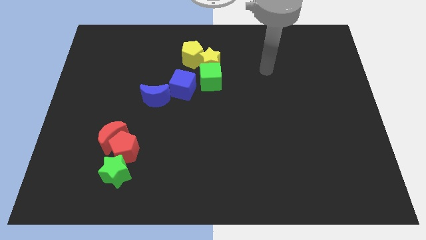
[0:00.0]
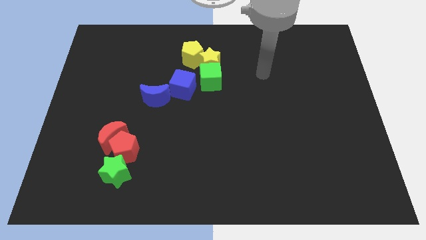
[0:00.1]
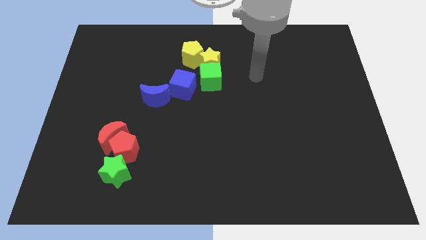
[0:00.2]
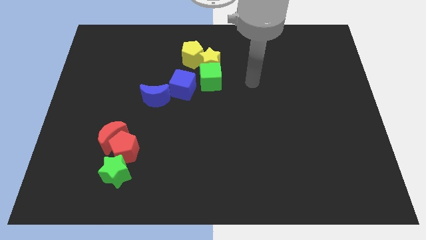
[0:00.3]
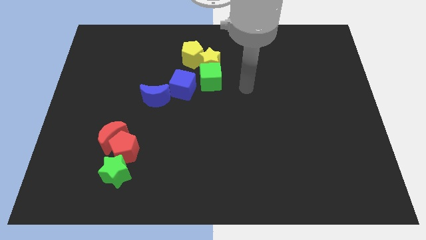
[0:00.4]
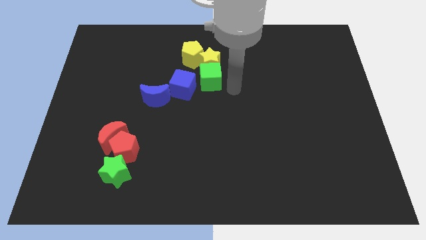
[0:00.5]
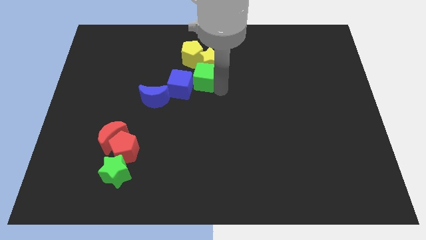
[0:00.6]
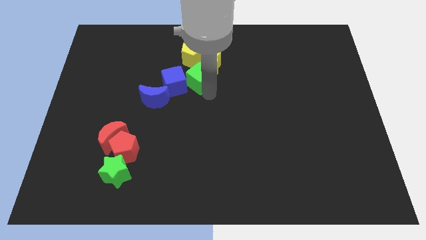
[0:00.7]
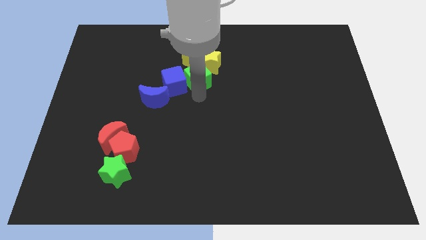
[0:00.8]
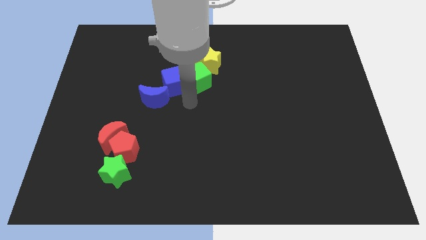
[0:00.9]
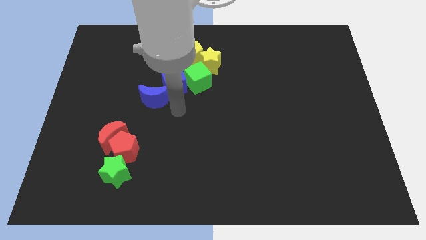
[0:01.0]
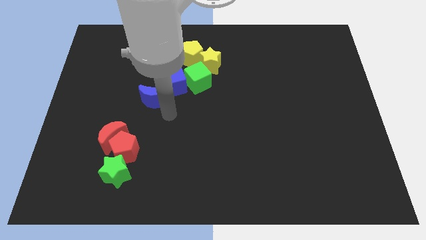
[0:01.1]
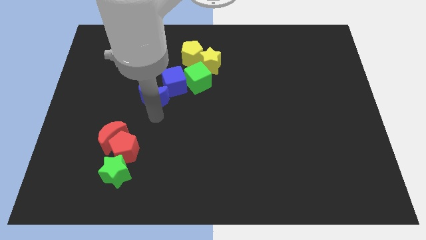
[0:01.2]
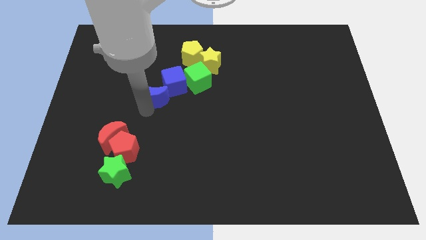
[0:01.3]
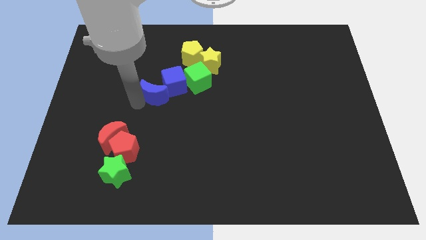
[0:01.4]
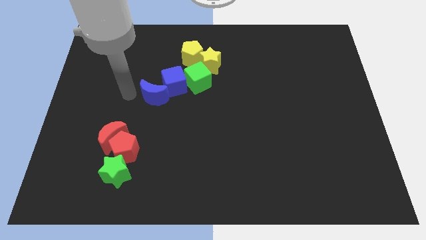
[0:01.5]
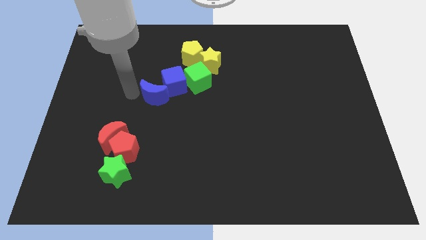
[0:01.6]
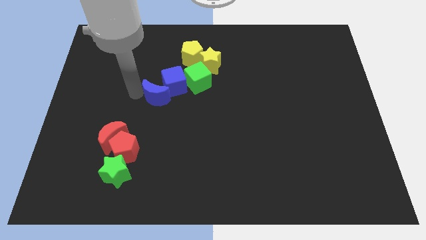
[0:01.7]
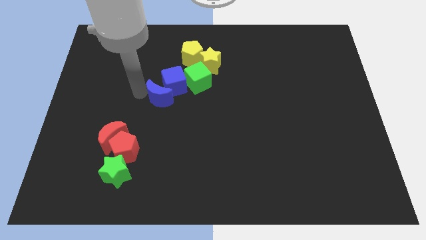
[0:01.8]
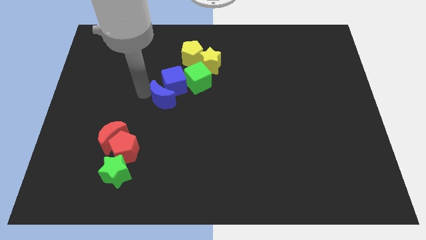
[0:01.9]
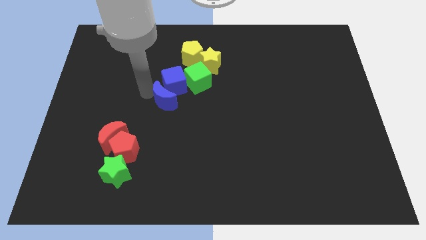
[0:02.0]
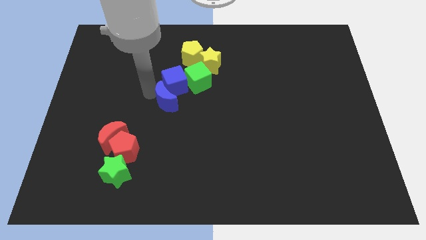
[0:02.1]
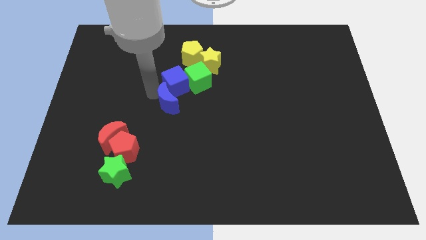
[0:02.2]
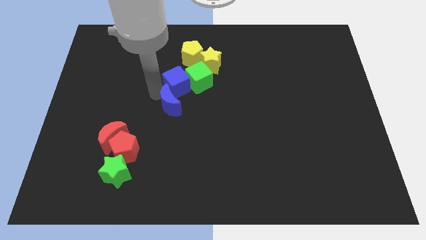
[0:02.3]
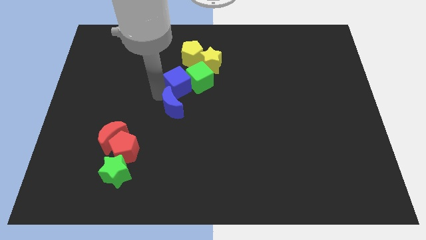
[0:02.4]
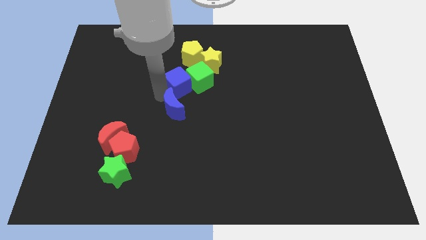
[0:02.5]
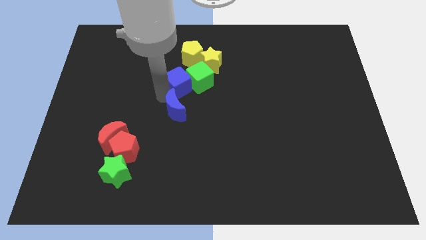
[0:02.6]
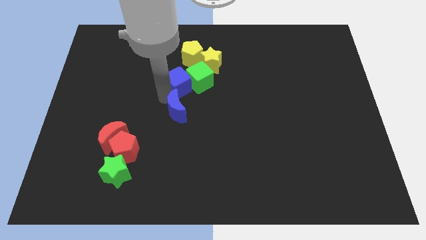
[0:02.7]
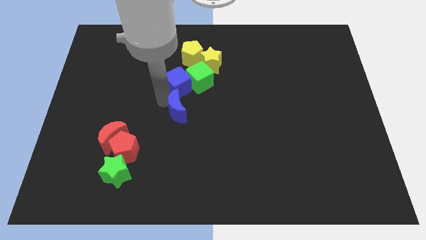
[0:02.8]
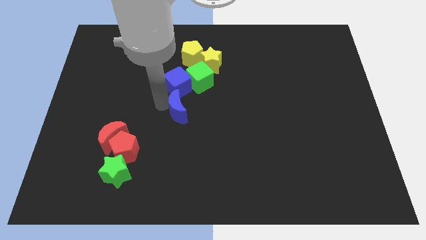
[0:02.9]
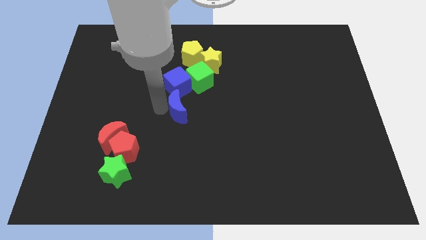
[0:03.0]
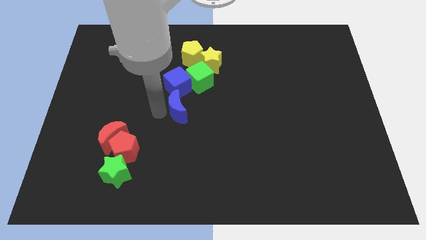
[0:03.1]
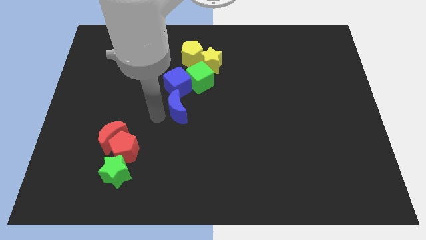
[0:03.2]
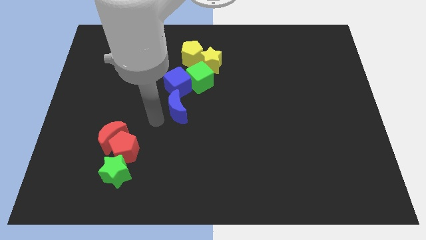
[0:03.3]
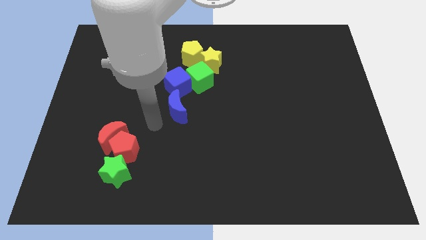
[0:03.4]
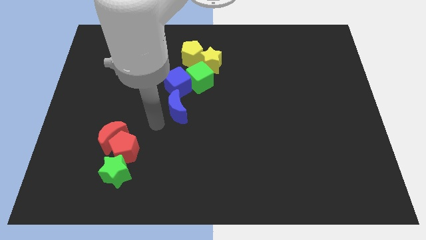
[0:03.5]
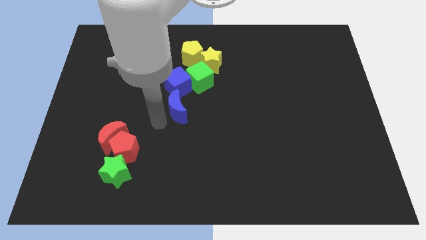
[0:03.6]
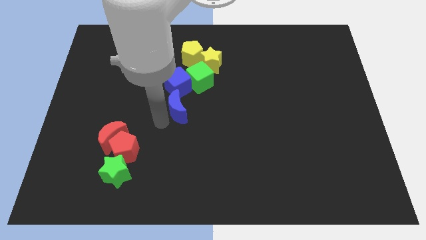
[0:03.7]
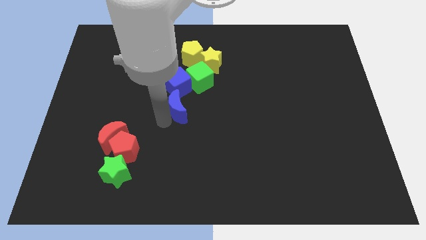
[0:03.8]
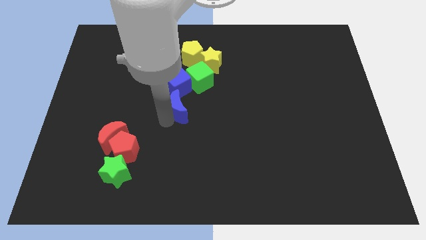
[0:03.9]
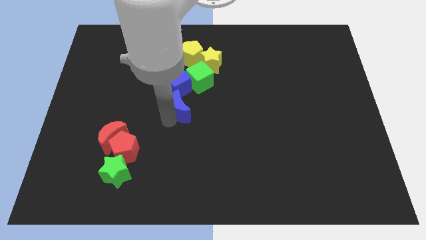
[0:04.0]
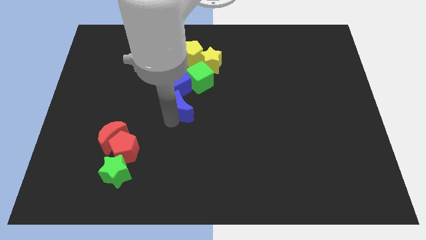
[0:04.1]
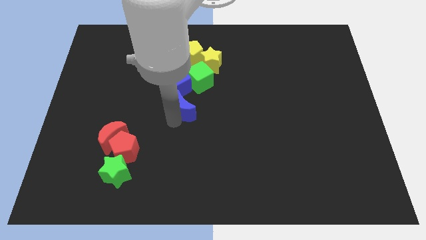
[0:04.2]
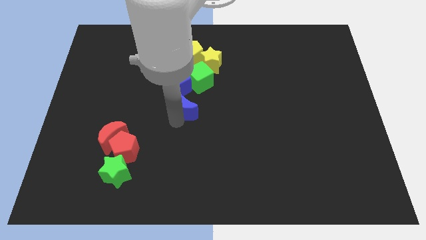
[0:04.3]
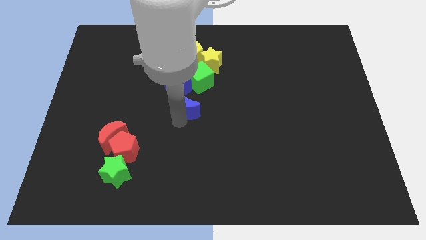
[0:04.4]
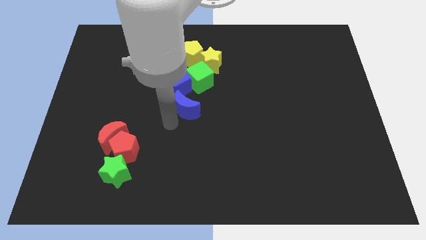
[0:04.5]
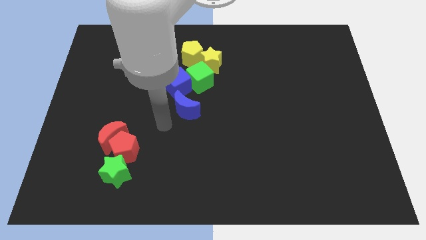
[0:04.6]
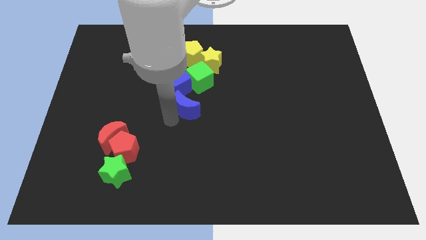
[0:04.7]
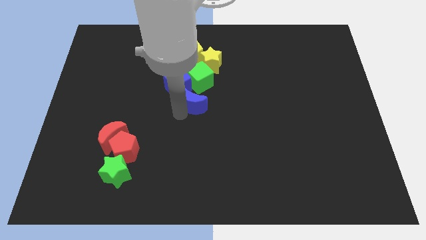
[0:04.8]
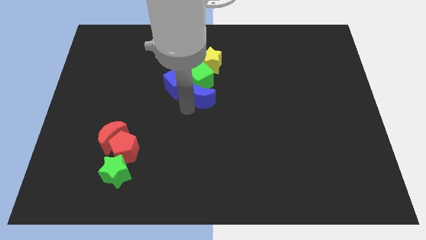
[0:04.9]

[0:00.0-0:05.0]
put the blue moon just right of the blue cube

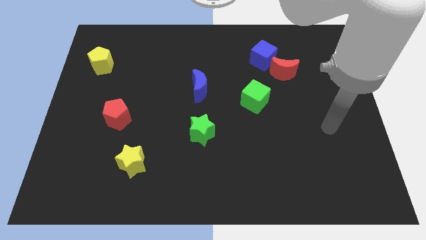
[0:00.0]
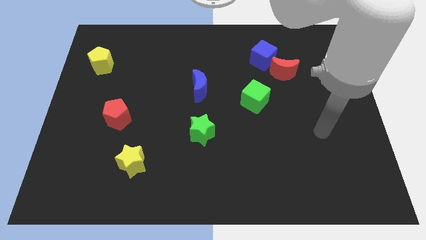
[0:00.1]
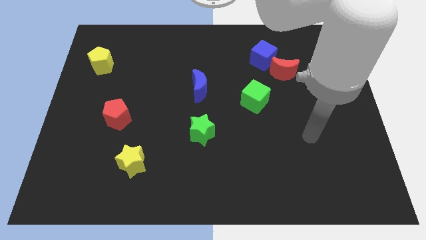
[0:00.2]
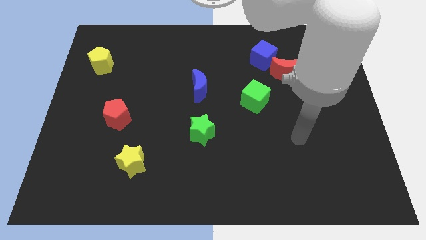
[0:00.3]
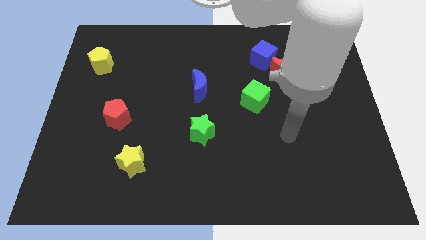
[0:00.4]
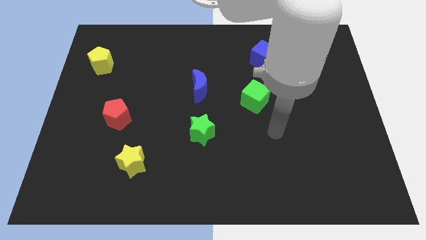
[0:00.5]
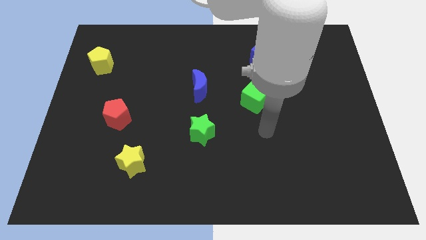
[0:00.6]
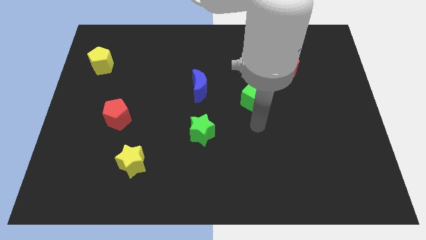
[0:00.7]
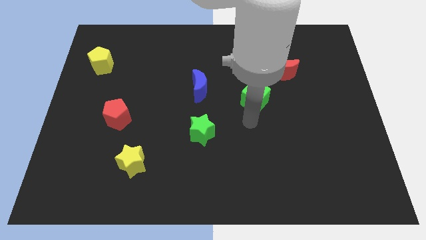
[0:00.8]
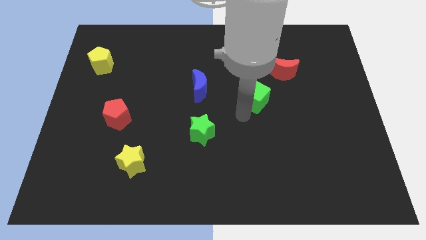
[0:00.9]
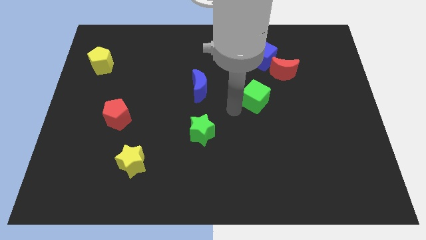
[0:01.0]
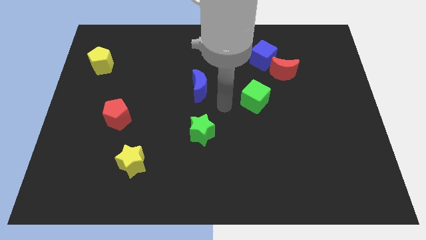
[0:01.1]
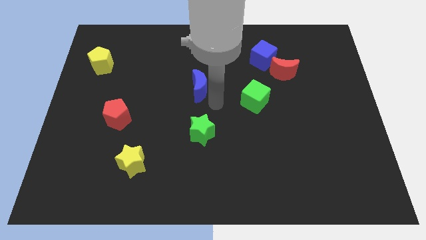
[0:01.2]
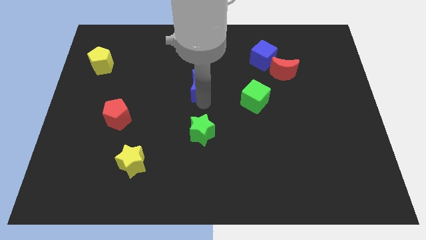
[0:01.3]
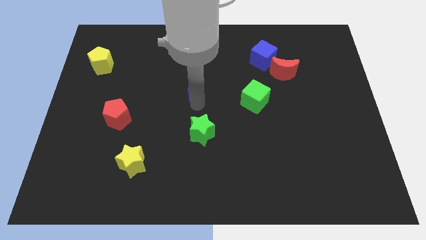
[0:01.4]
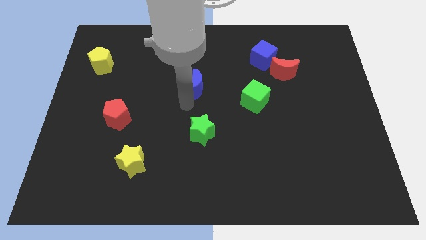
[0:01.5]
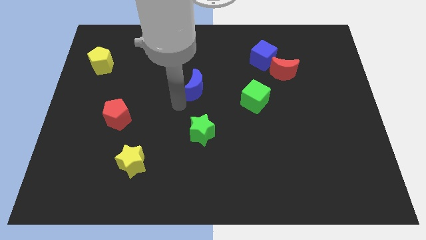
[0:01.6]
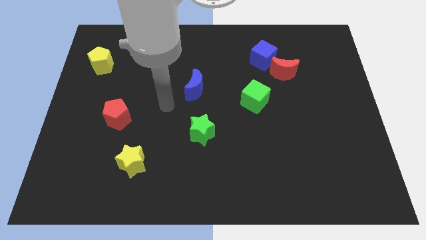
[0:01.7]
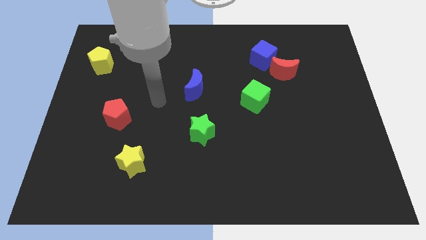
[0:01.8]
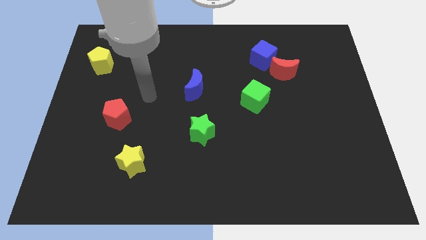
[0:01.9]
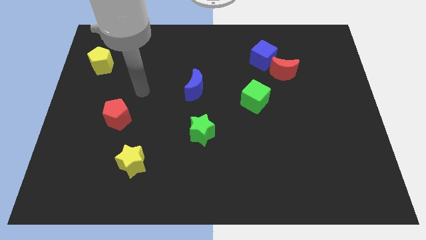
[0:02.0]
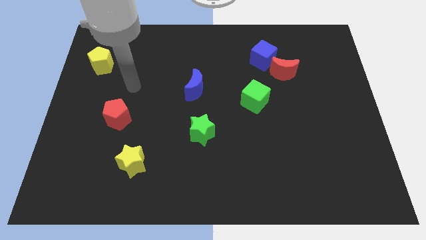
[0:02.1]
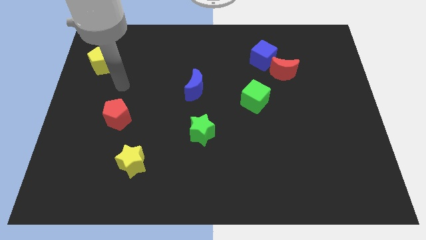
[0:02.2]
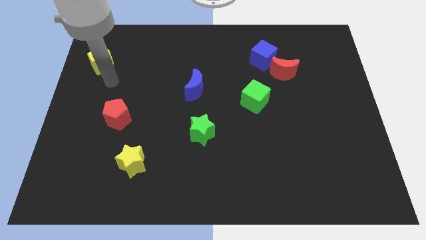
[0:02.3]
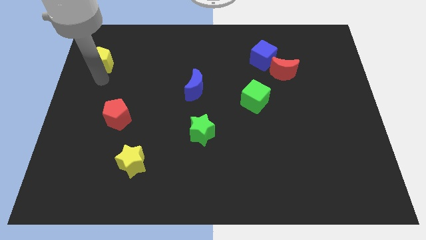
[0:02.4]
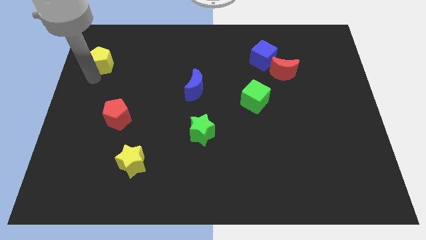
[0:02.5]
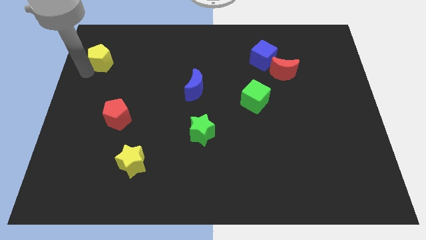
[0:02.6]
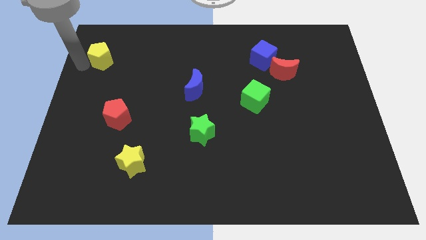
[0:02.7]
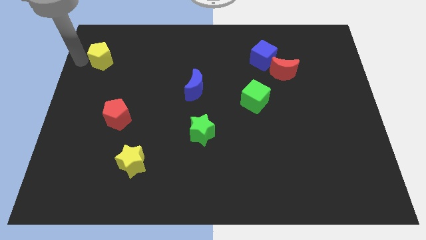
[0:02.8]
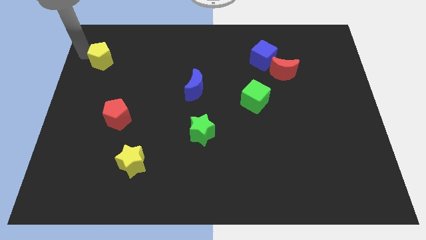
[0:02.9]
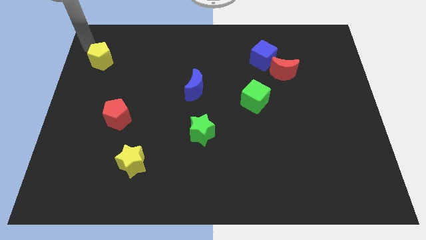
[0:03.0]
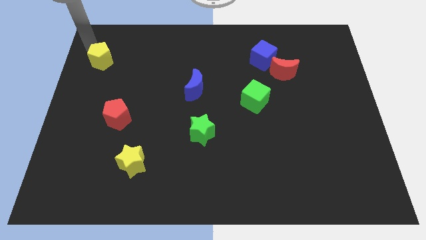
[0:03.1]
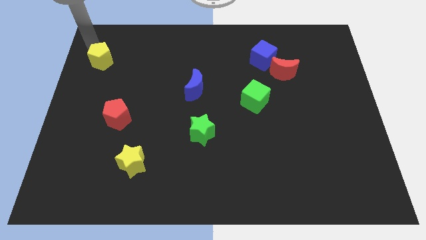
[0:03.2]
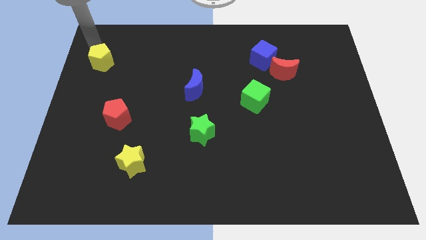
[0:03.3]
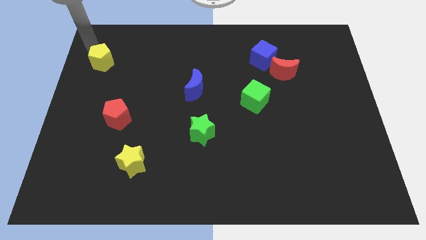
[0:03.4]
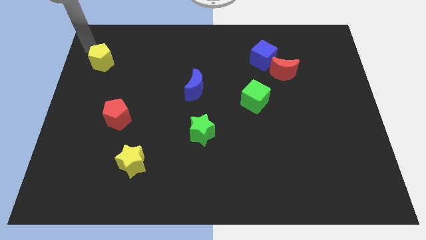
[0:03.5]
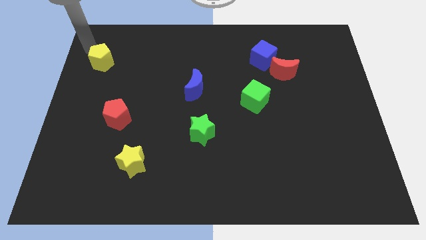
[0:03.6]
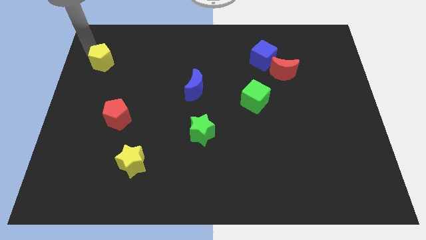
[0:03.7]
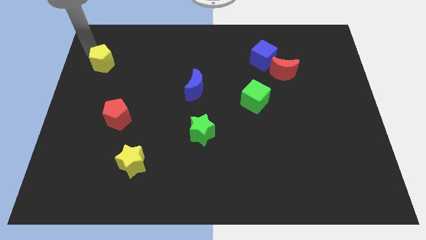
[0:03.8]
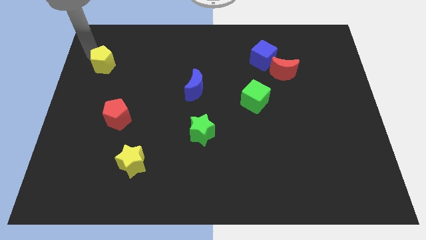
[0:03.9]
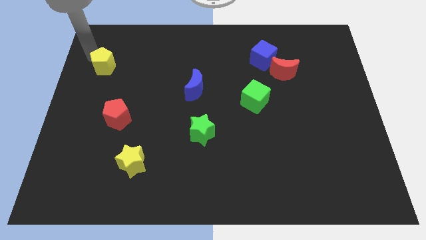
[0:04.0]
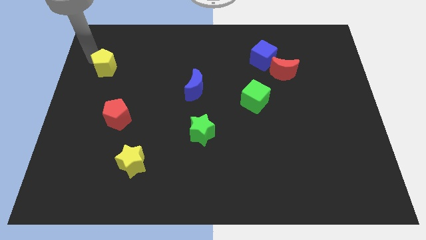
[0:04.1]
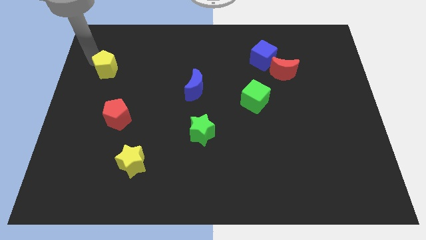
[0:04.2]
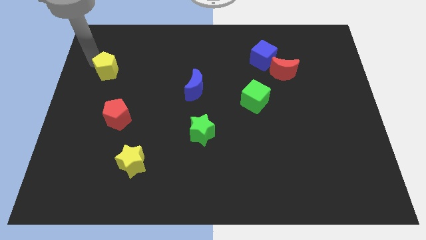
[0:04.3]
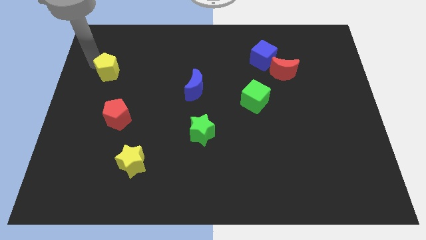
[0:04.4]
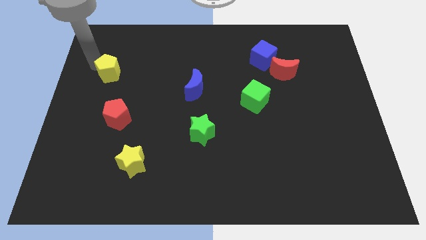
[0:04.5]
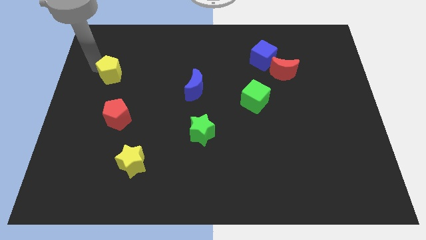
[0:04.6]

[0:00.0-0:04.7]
put the yellow pentagon above the red pentagon
